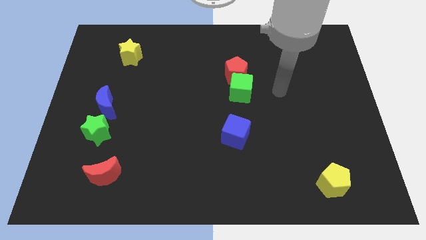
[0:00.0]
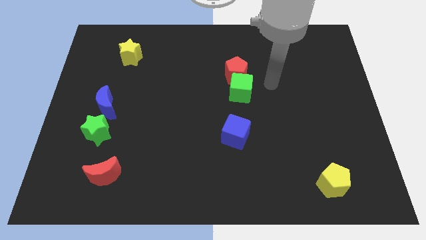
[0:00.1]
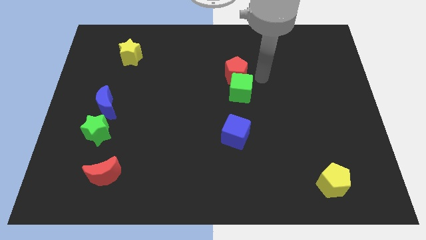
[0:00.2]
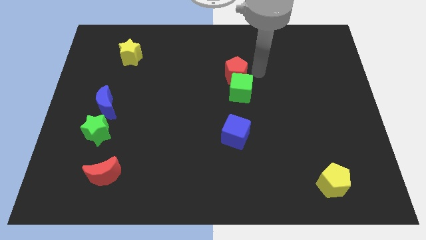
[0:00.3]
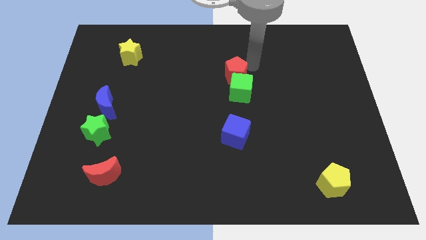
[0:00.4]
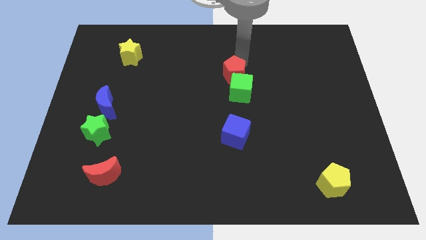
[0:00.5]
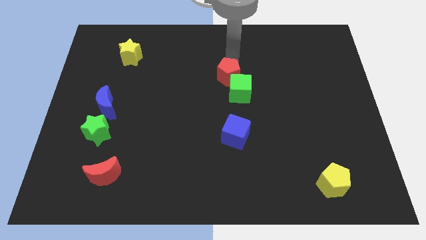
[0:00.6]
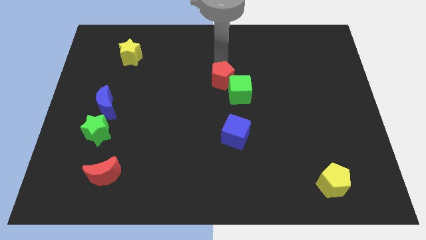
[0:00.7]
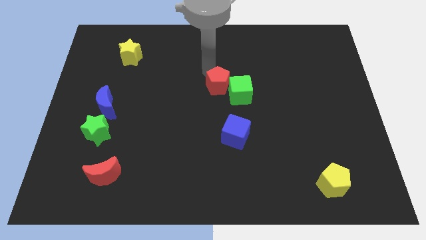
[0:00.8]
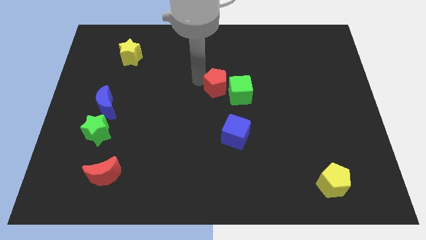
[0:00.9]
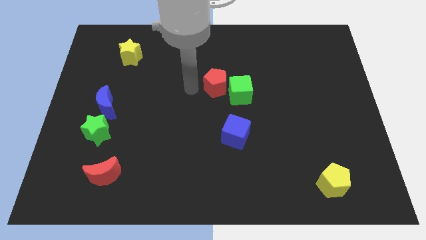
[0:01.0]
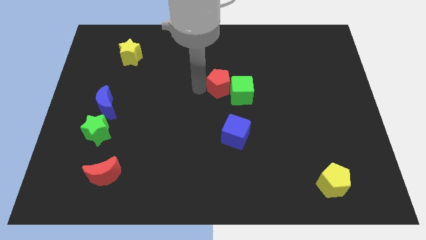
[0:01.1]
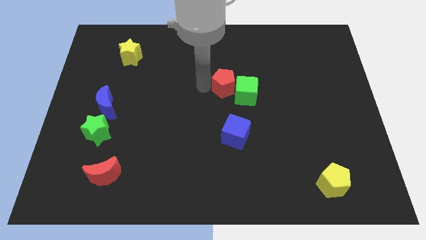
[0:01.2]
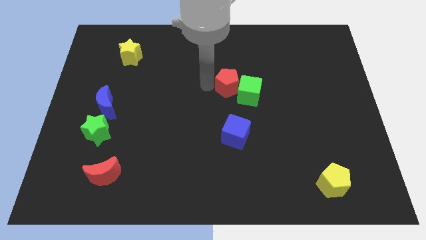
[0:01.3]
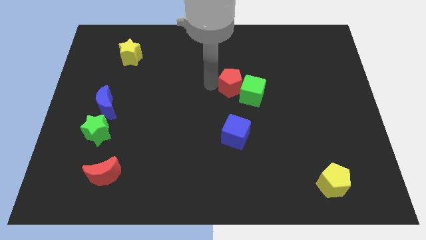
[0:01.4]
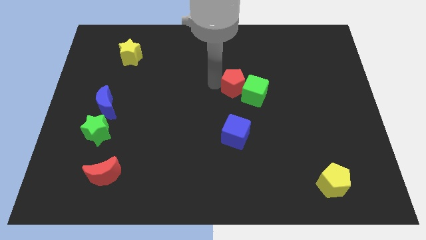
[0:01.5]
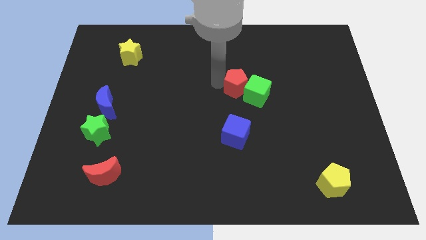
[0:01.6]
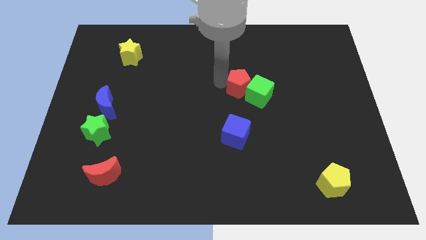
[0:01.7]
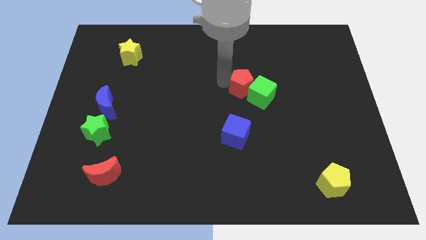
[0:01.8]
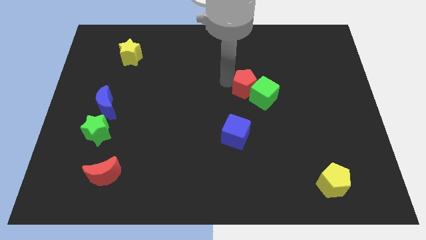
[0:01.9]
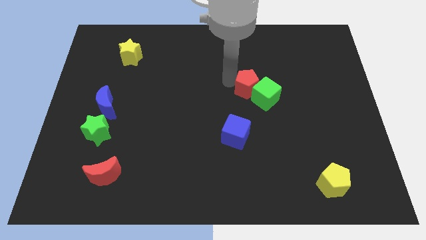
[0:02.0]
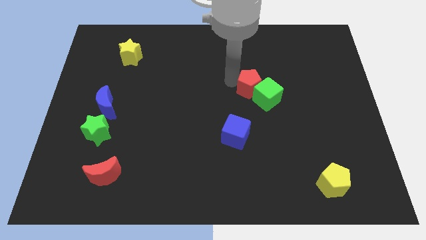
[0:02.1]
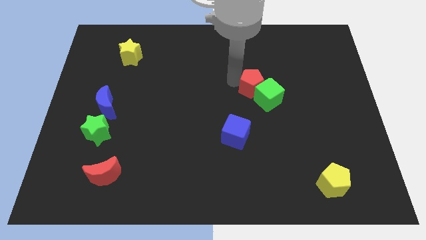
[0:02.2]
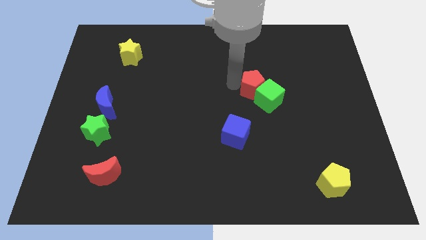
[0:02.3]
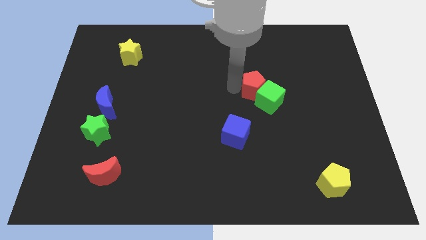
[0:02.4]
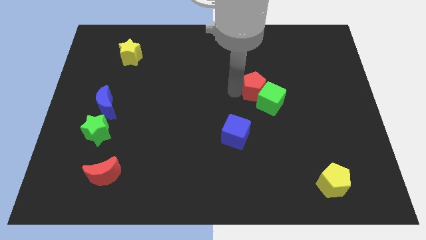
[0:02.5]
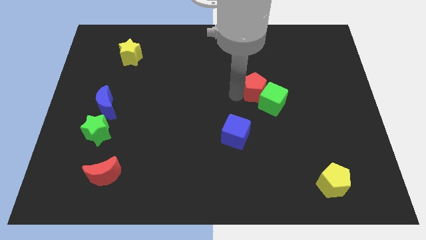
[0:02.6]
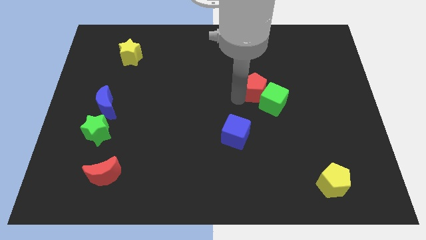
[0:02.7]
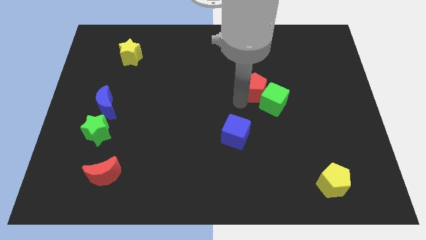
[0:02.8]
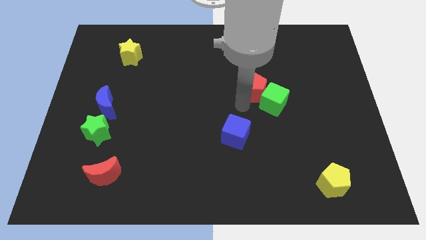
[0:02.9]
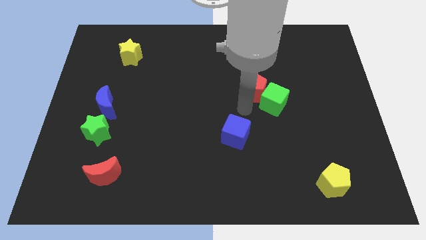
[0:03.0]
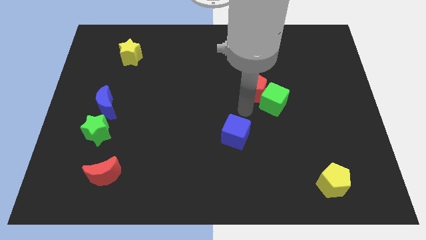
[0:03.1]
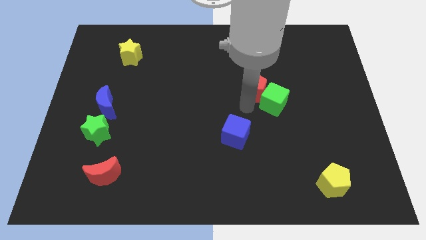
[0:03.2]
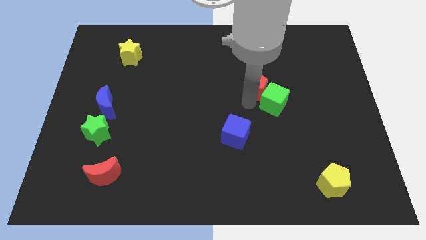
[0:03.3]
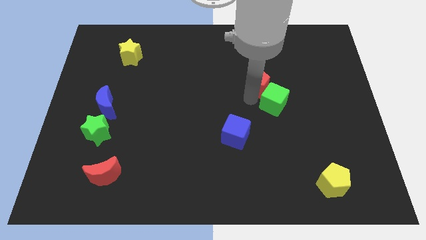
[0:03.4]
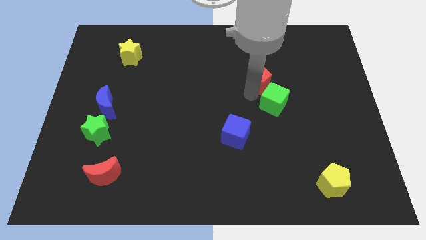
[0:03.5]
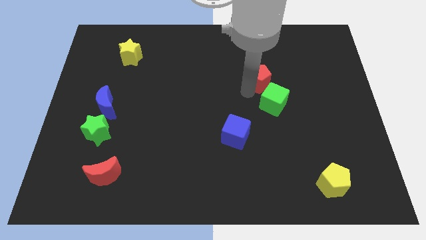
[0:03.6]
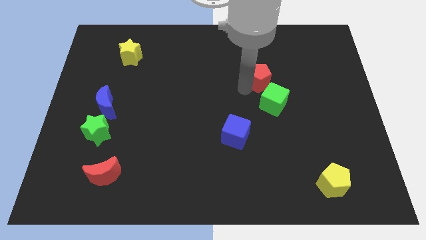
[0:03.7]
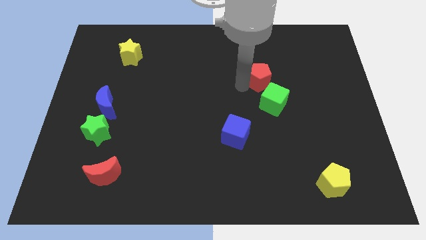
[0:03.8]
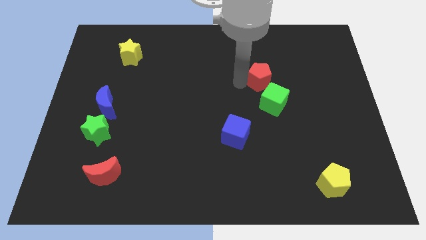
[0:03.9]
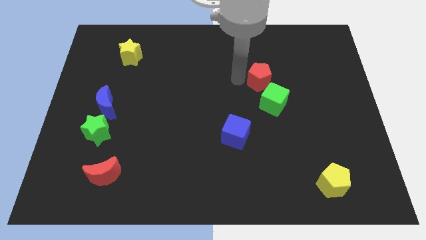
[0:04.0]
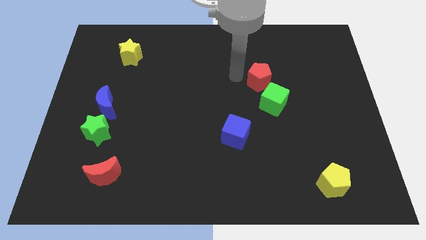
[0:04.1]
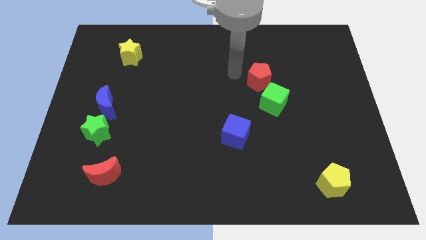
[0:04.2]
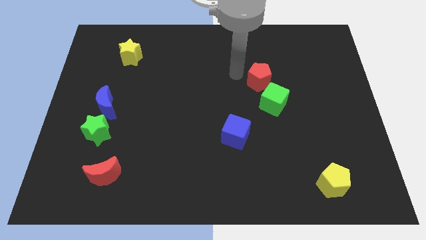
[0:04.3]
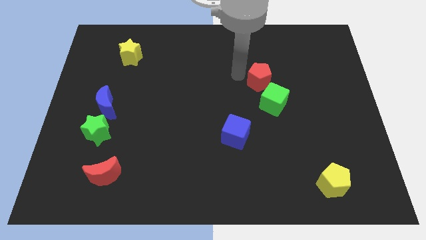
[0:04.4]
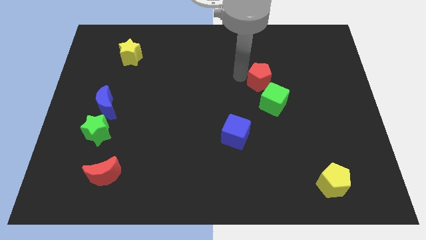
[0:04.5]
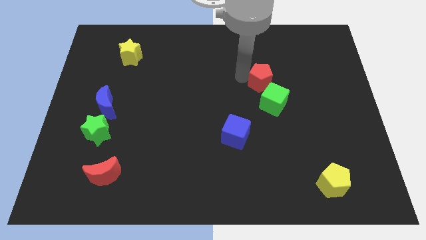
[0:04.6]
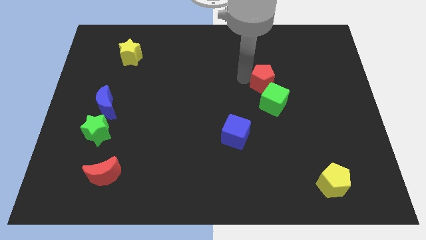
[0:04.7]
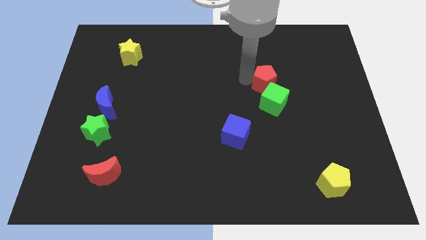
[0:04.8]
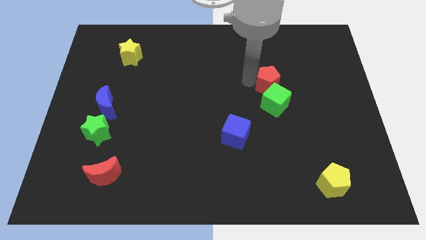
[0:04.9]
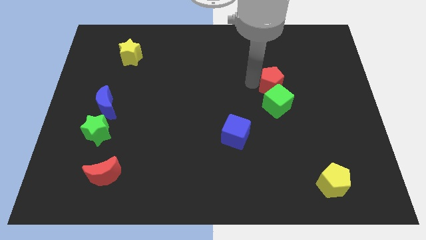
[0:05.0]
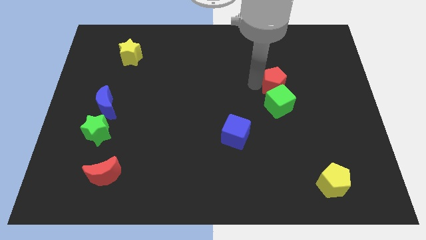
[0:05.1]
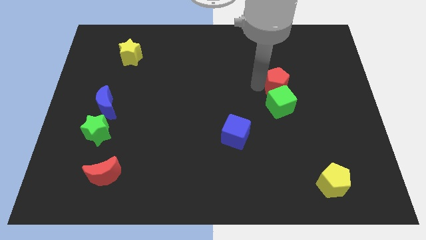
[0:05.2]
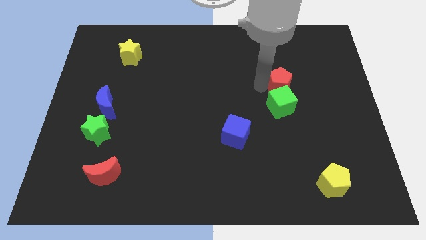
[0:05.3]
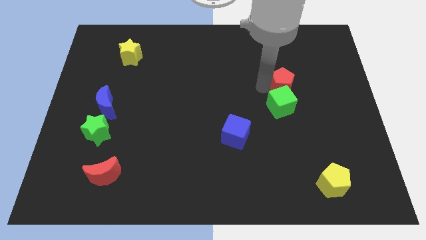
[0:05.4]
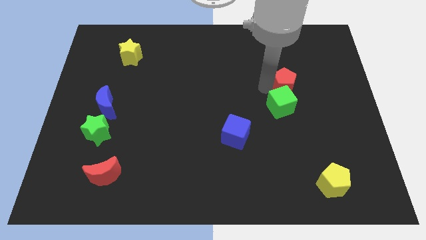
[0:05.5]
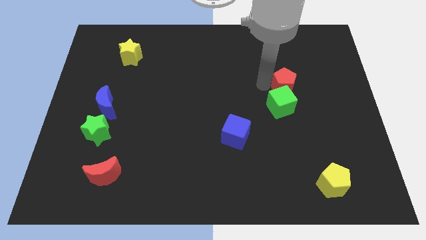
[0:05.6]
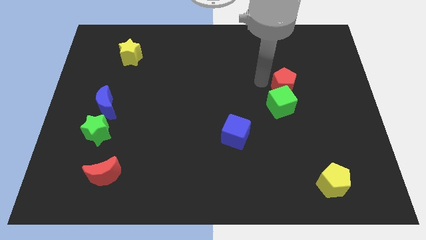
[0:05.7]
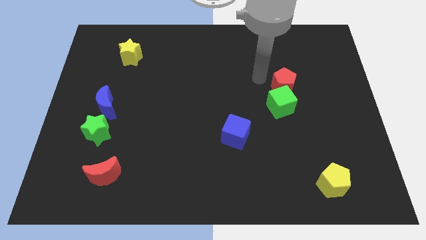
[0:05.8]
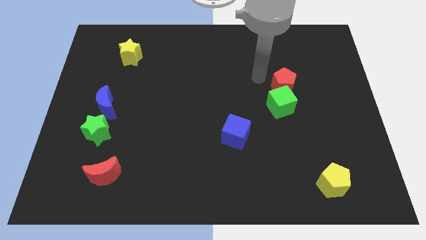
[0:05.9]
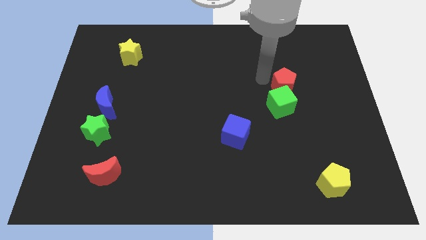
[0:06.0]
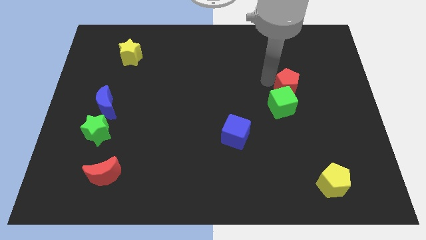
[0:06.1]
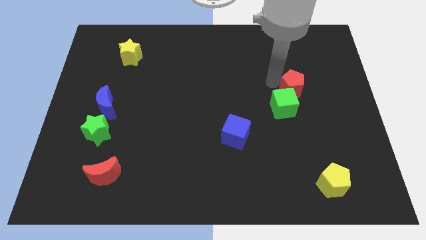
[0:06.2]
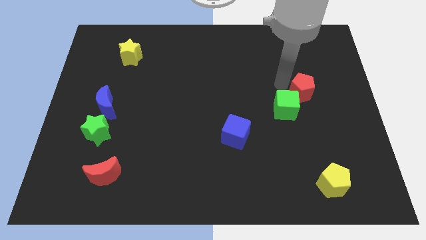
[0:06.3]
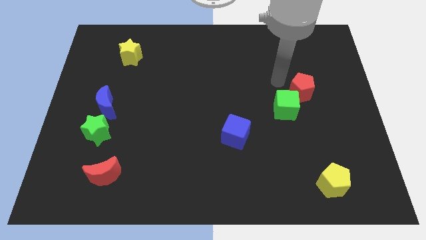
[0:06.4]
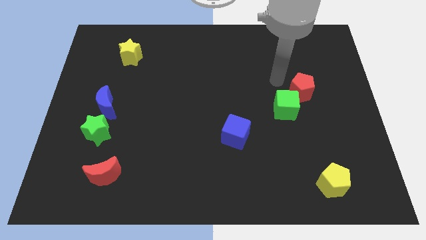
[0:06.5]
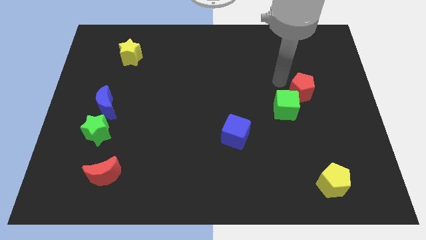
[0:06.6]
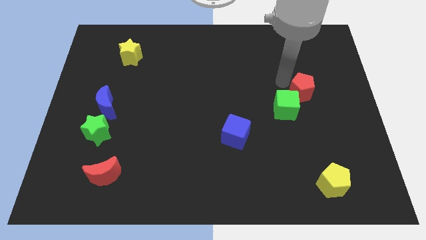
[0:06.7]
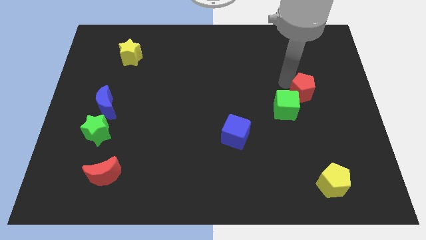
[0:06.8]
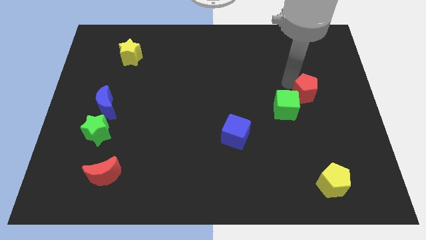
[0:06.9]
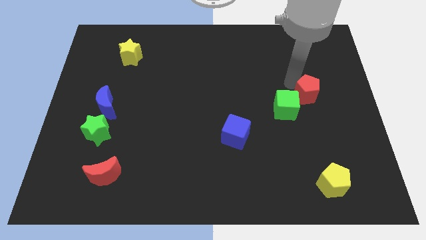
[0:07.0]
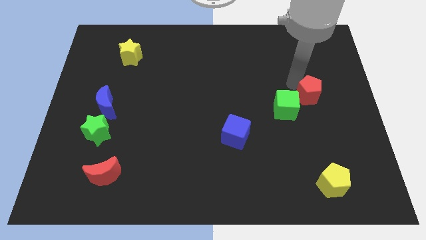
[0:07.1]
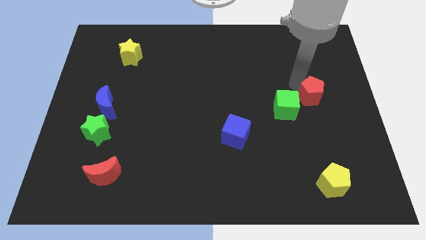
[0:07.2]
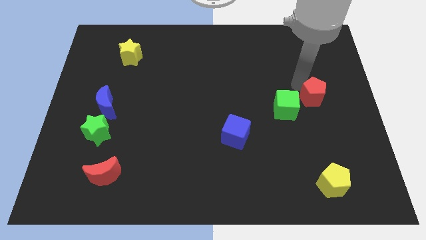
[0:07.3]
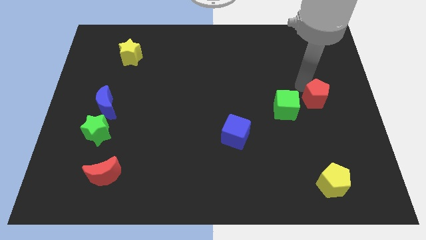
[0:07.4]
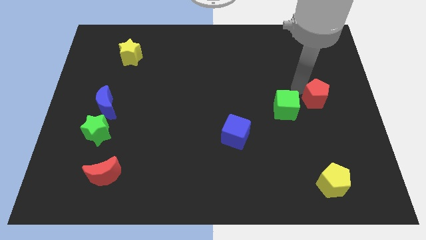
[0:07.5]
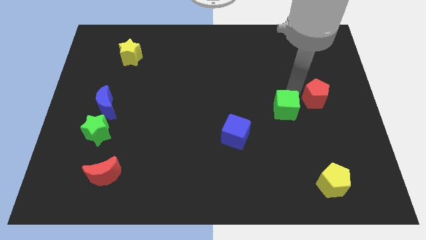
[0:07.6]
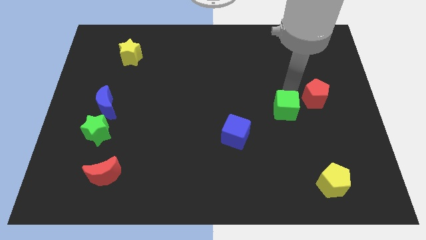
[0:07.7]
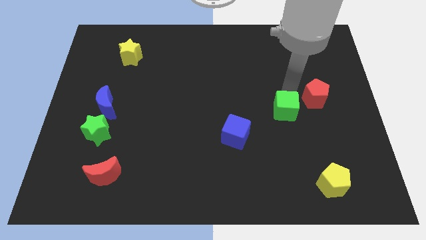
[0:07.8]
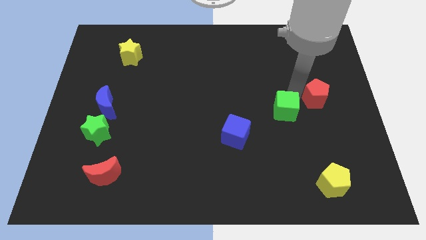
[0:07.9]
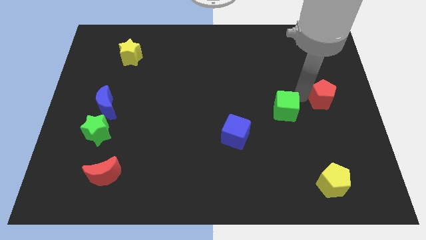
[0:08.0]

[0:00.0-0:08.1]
move the red pentagon to the right side
